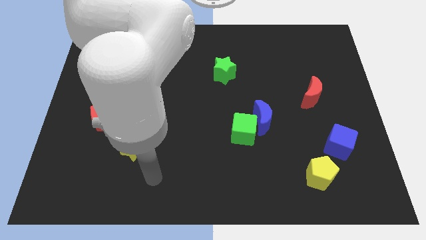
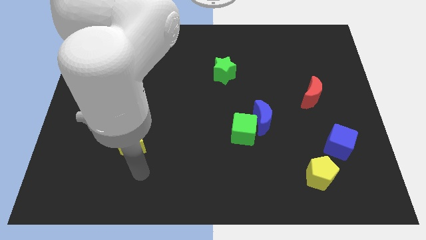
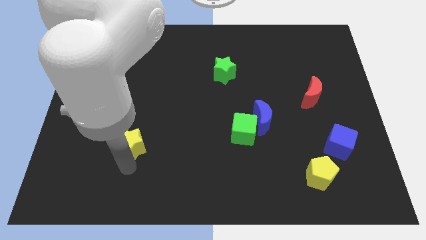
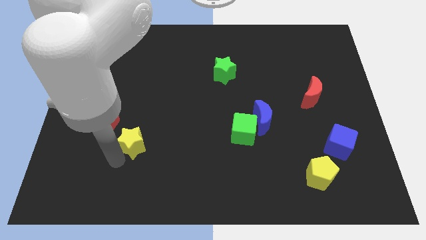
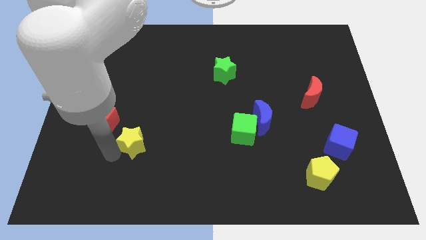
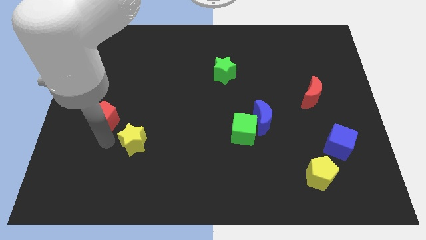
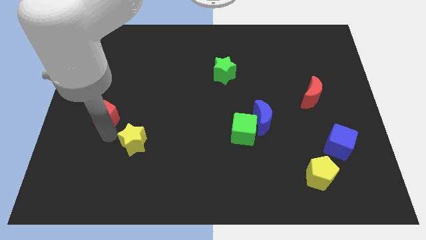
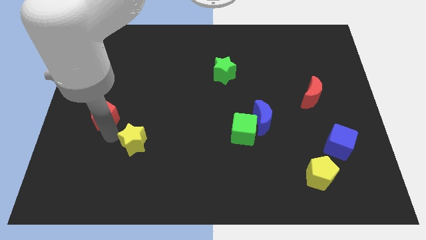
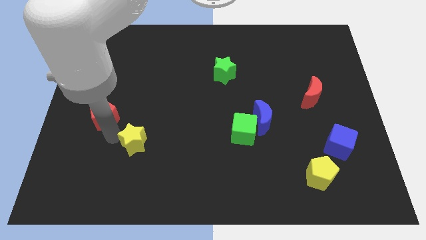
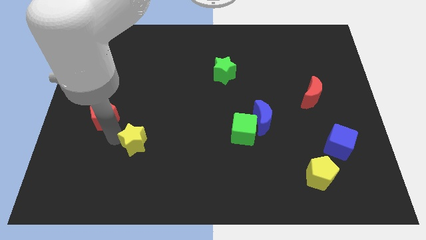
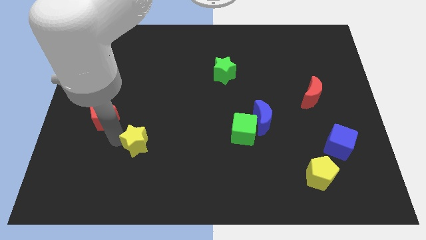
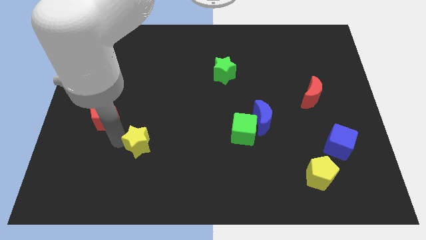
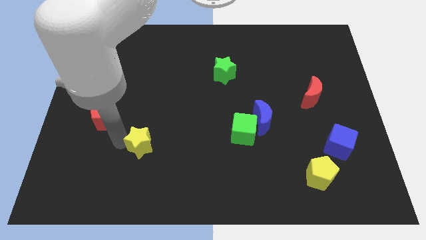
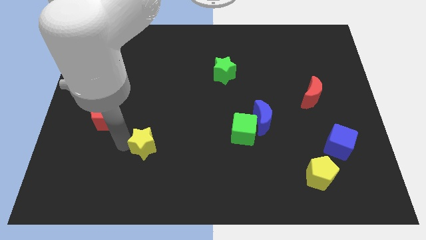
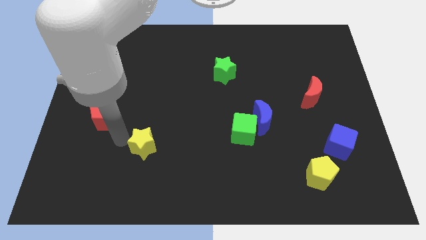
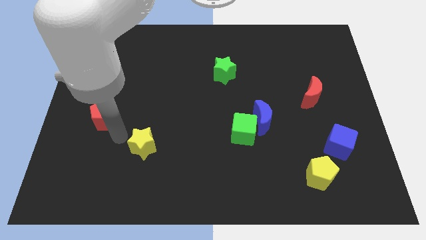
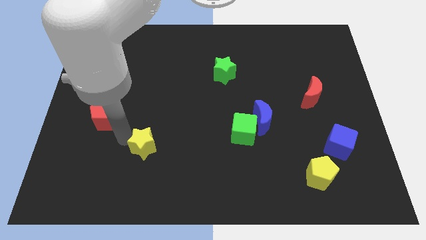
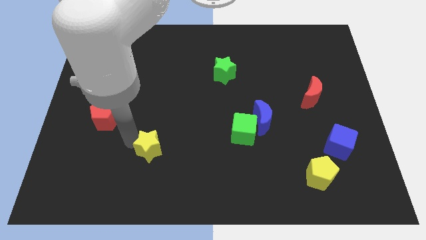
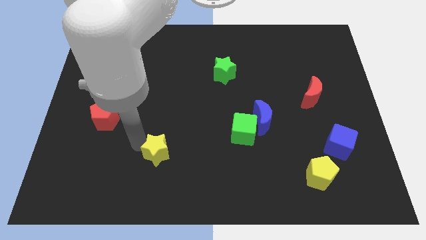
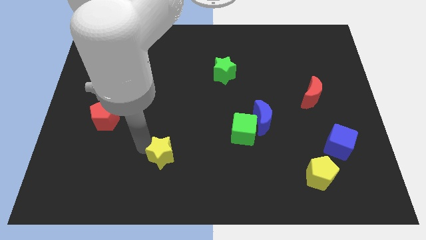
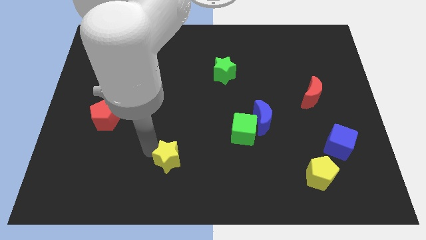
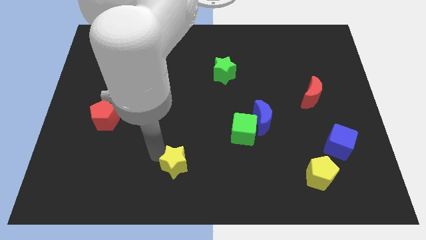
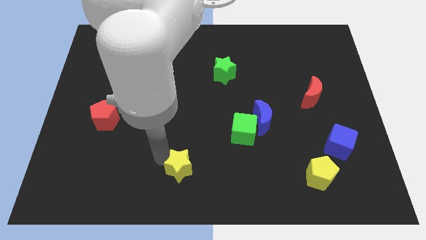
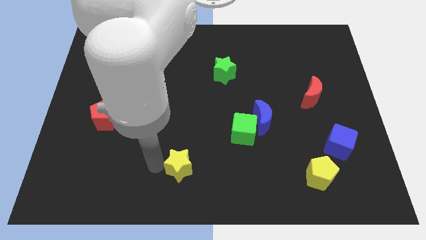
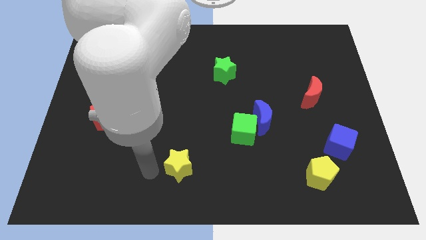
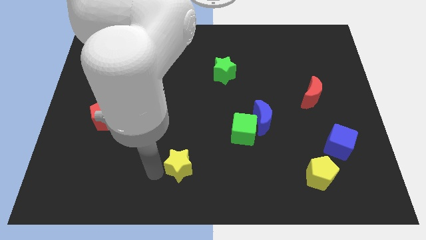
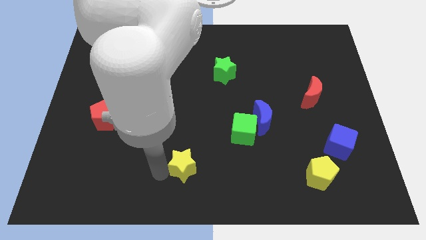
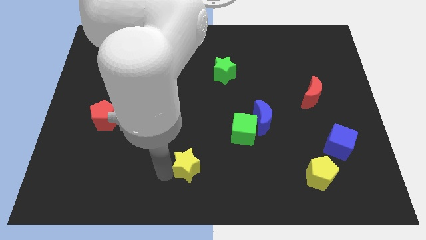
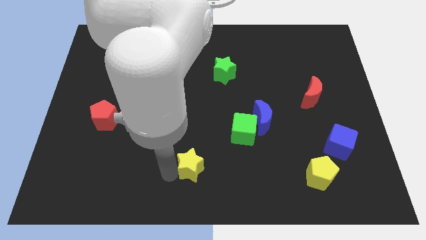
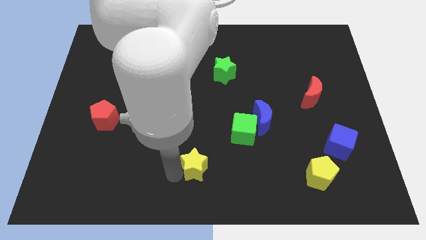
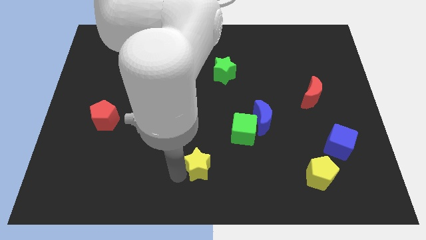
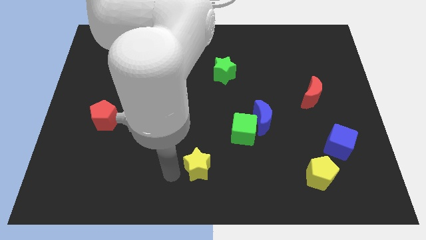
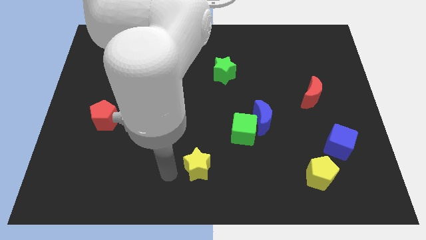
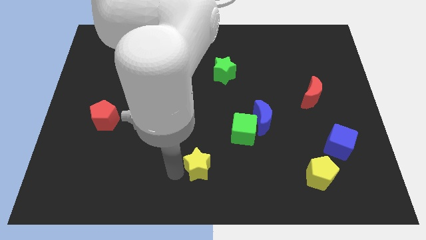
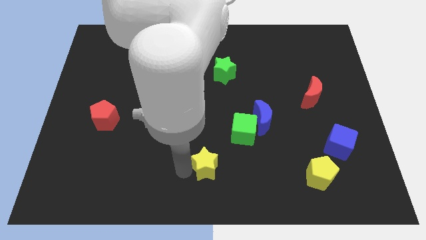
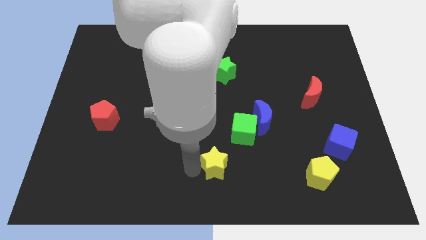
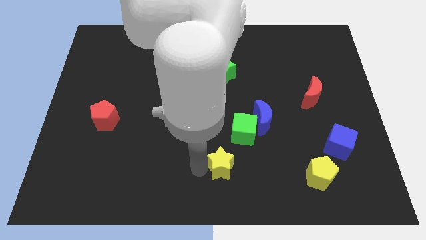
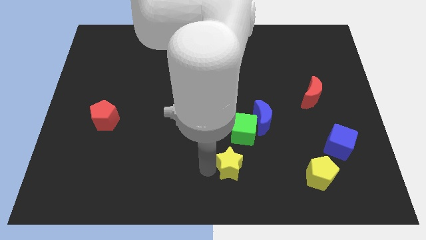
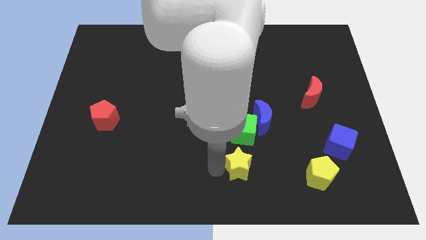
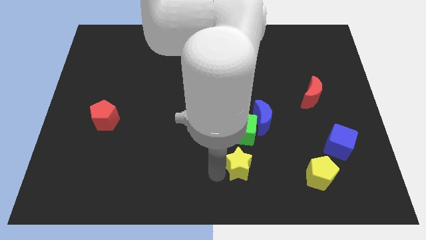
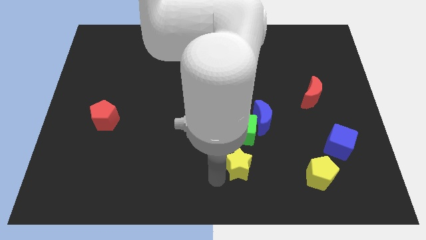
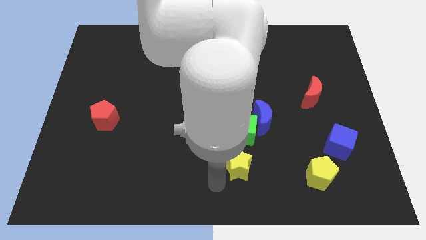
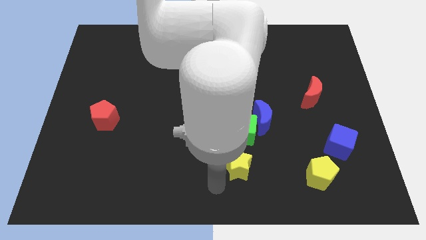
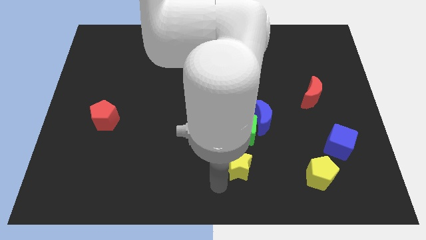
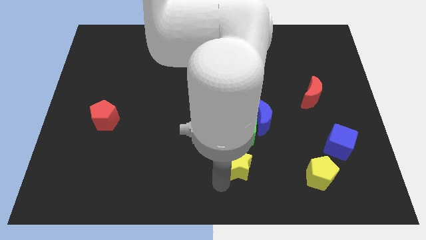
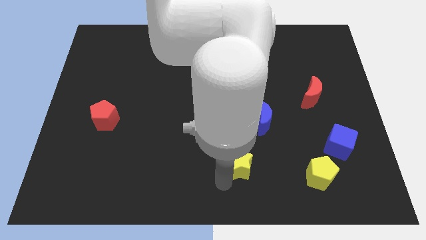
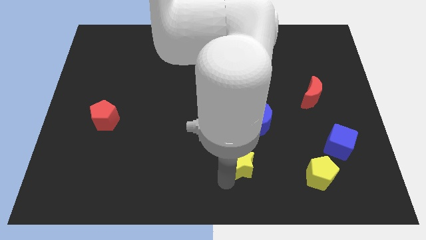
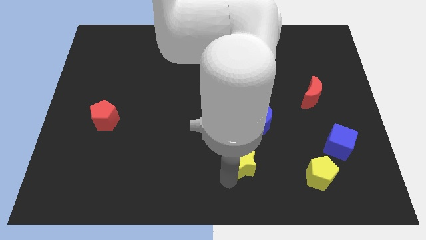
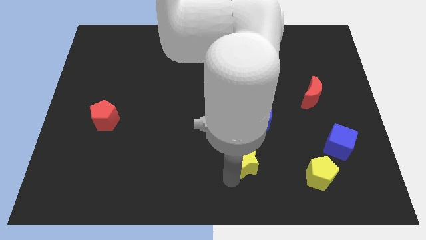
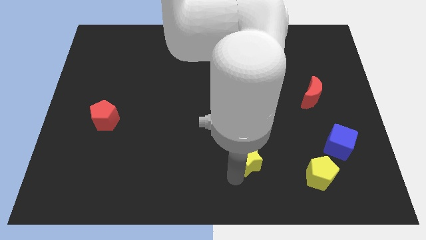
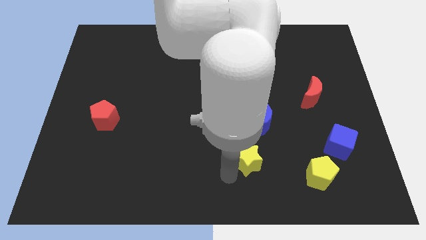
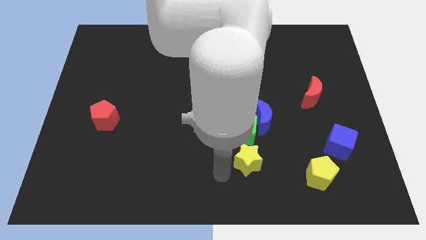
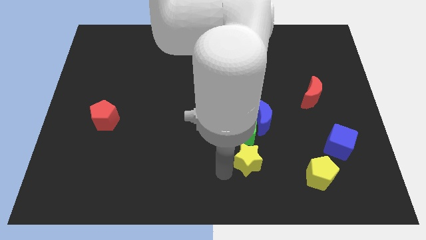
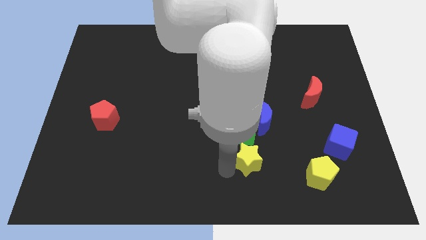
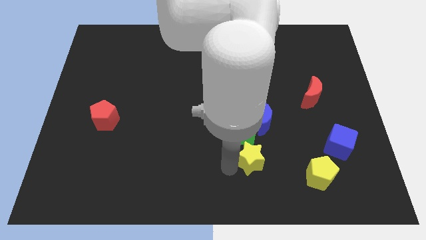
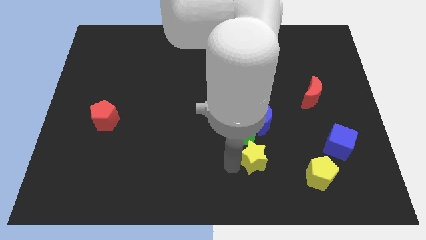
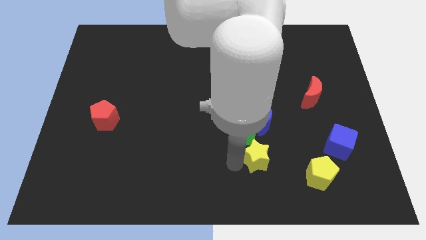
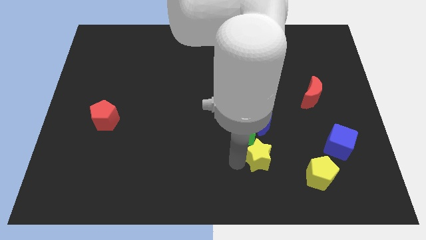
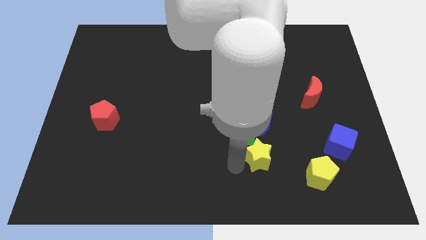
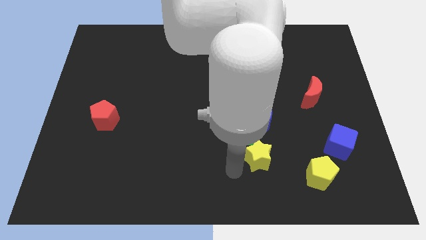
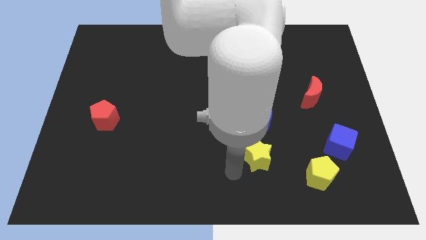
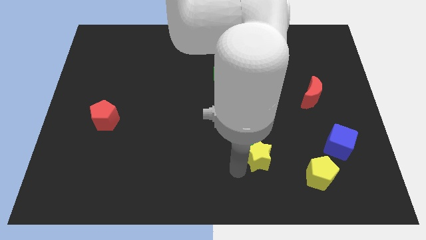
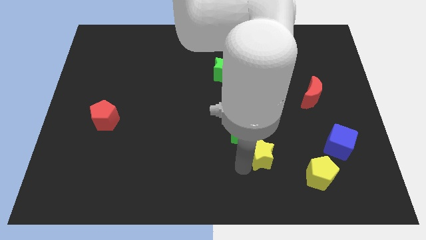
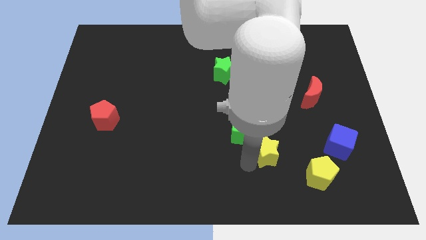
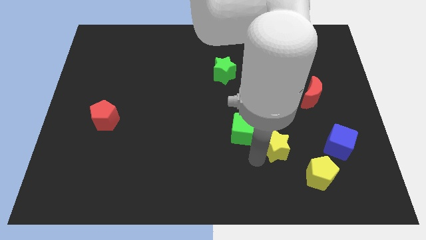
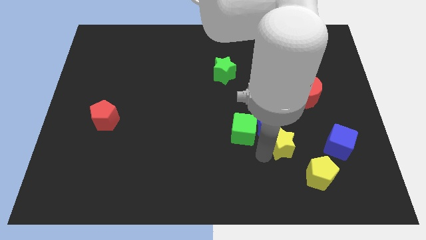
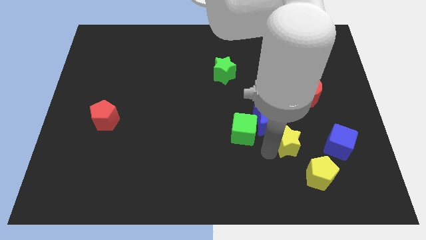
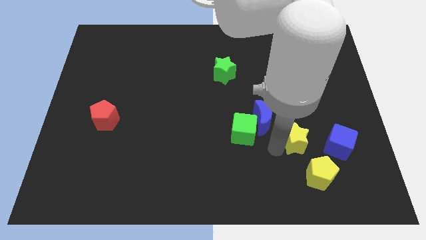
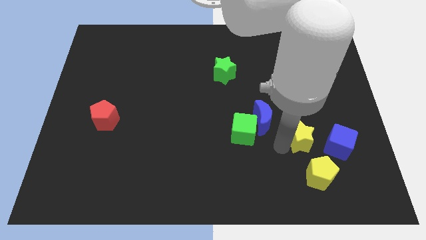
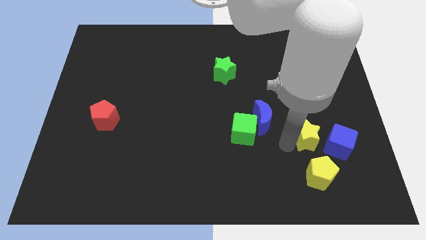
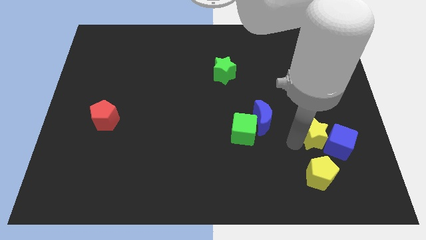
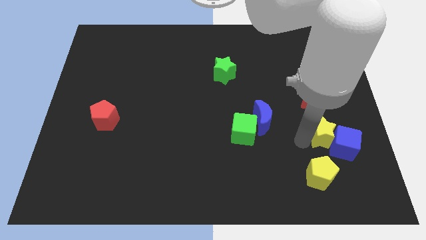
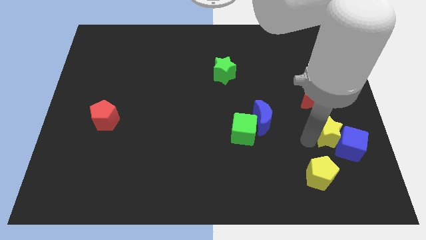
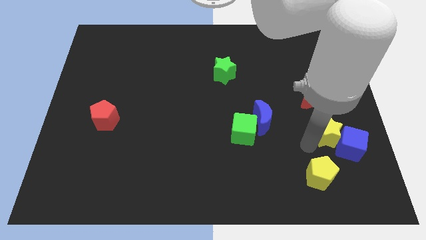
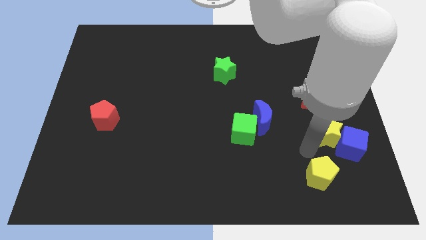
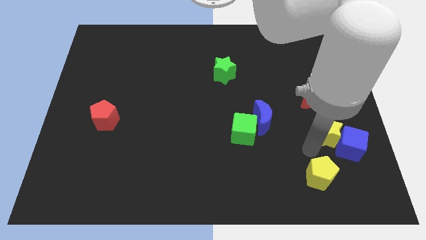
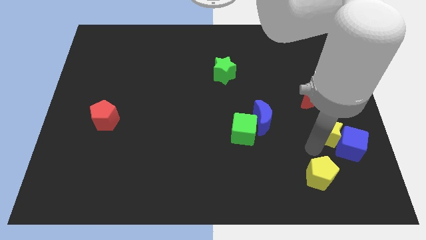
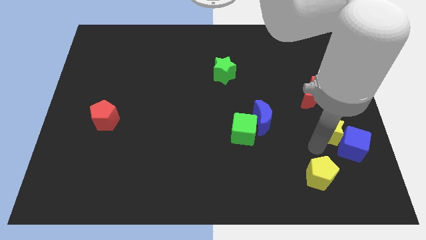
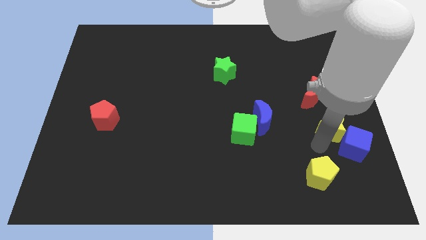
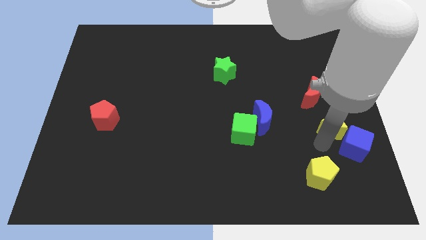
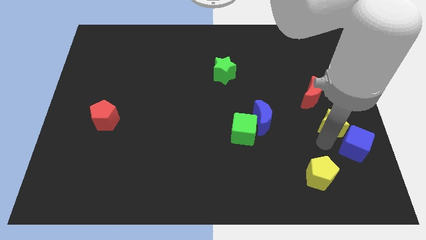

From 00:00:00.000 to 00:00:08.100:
slide the yellow star to the center right
